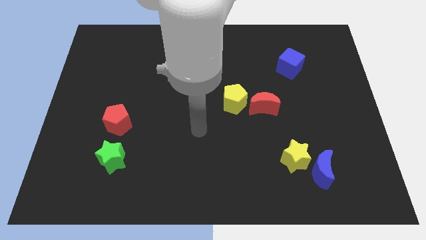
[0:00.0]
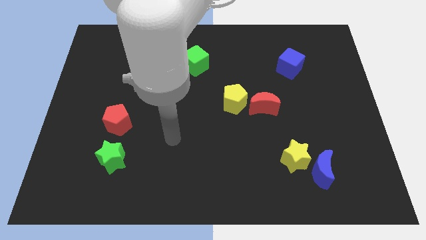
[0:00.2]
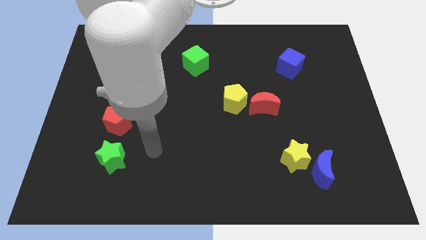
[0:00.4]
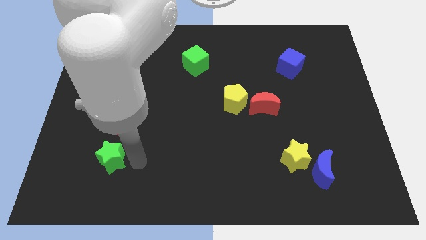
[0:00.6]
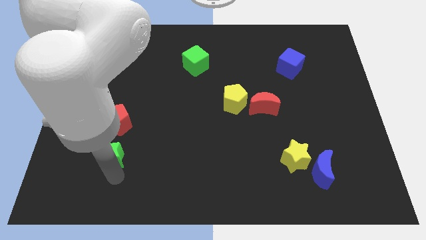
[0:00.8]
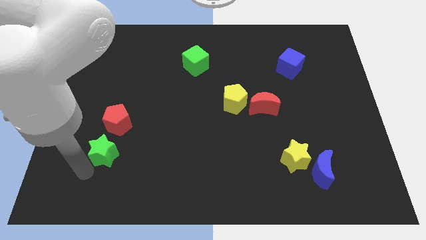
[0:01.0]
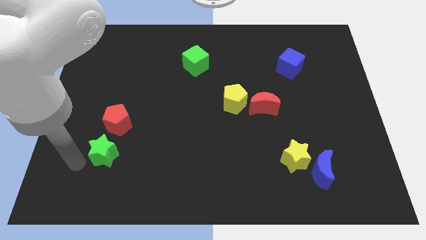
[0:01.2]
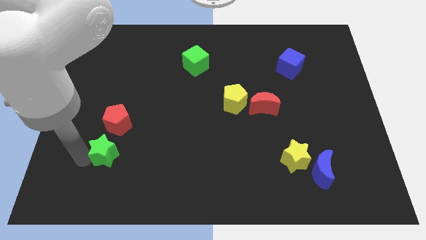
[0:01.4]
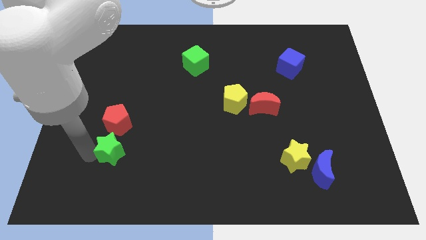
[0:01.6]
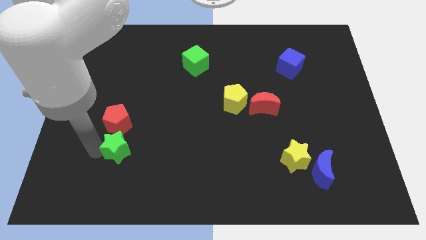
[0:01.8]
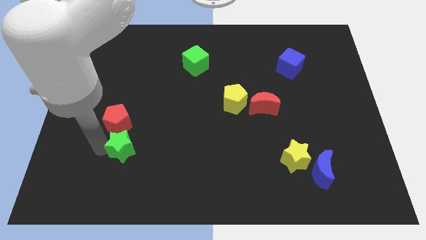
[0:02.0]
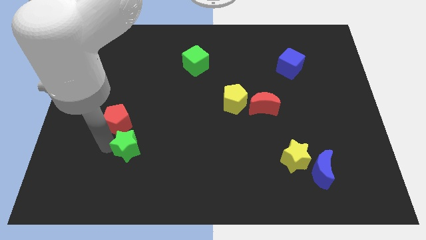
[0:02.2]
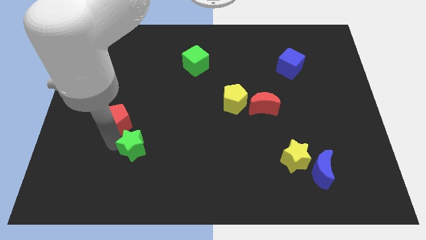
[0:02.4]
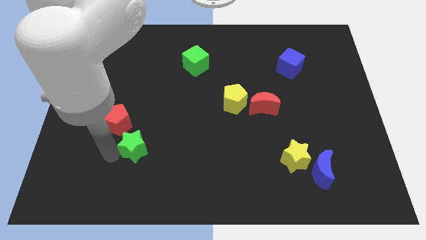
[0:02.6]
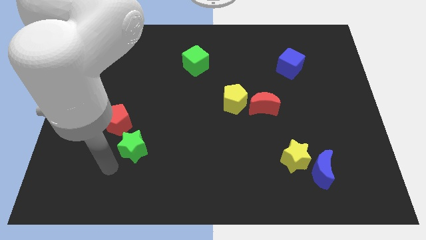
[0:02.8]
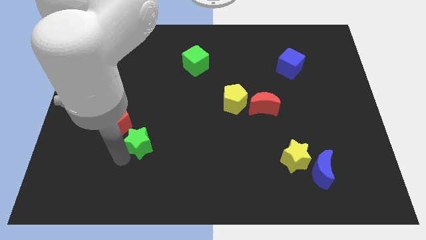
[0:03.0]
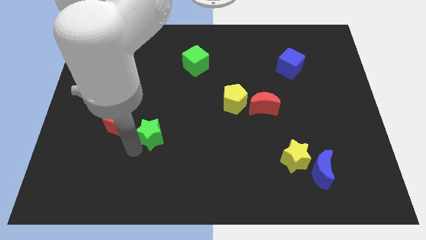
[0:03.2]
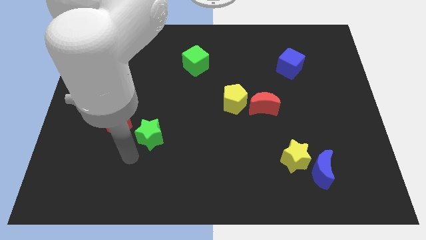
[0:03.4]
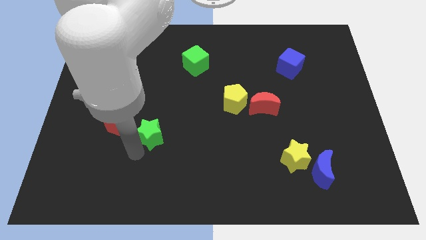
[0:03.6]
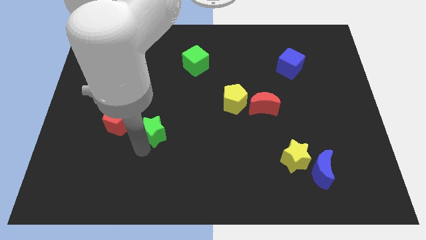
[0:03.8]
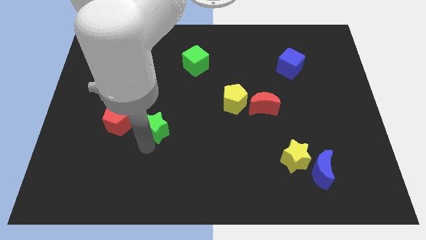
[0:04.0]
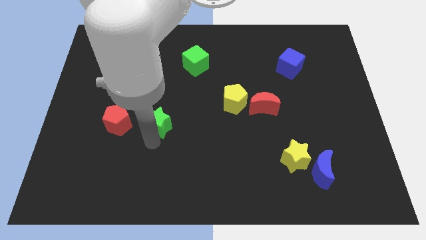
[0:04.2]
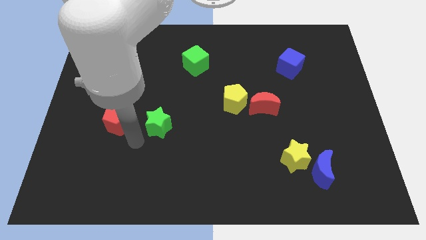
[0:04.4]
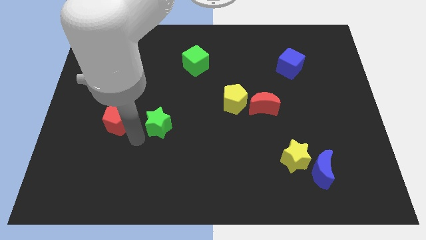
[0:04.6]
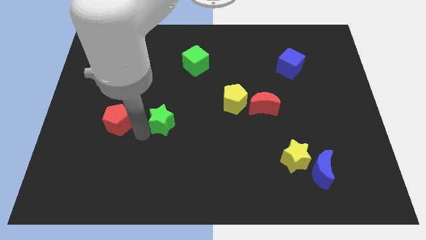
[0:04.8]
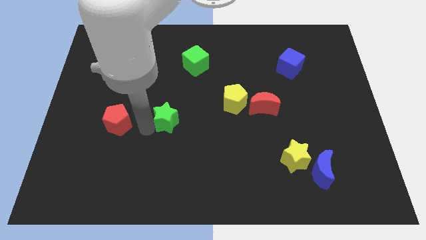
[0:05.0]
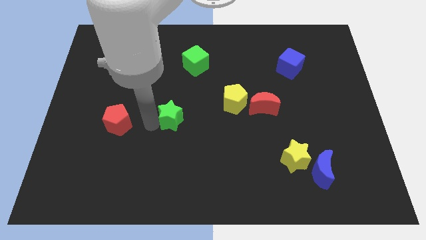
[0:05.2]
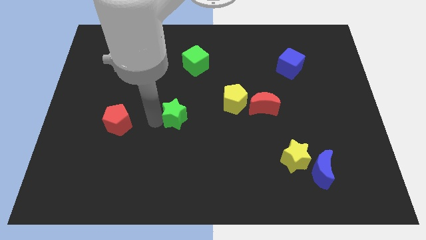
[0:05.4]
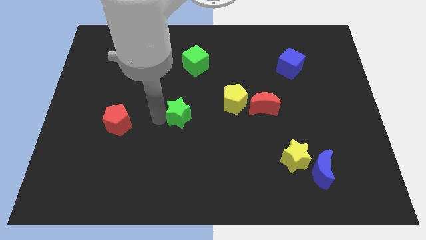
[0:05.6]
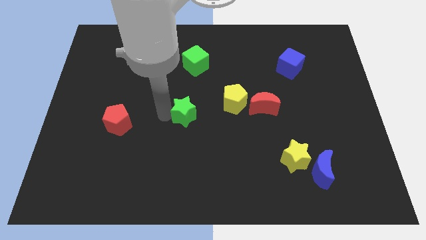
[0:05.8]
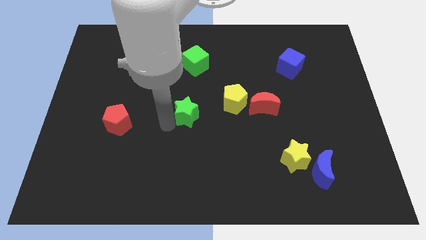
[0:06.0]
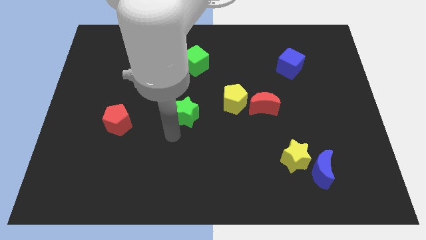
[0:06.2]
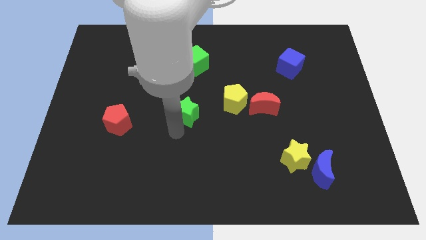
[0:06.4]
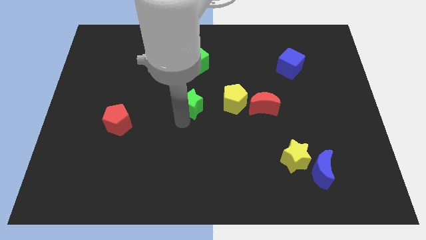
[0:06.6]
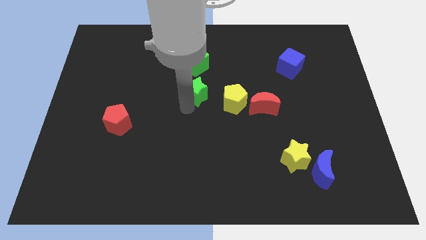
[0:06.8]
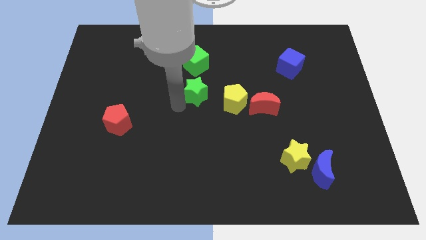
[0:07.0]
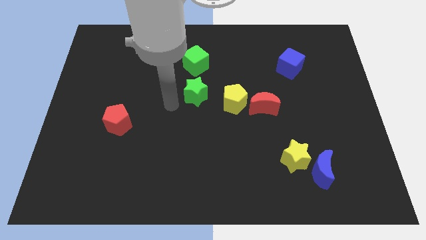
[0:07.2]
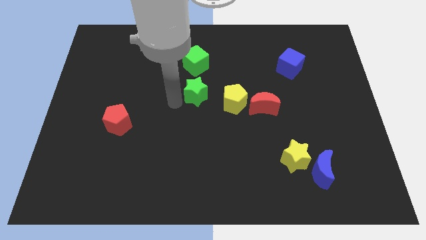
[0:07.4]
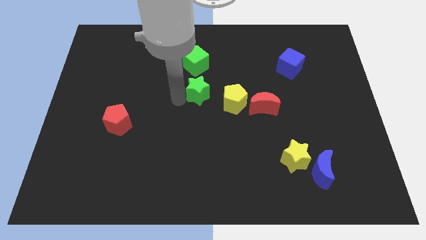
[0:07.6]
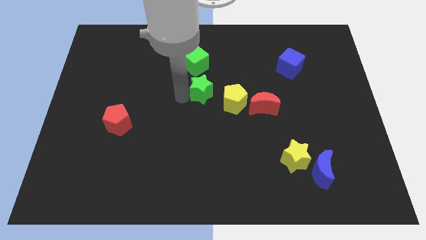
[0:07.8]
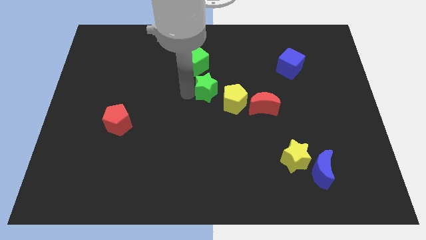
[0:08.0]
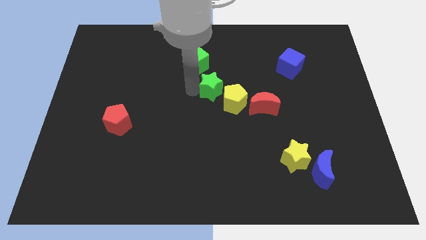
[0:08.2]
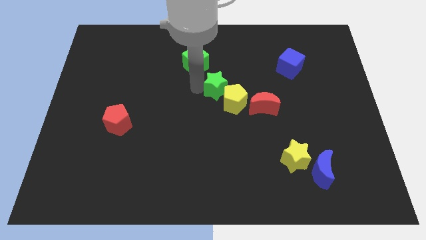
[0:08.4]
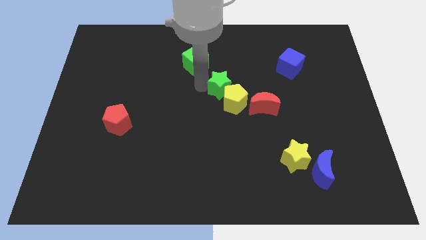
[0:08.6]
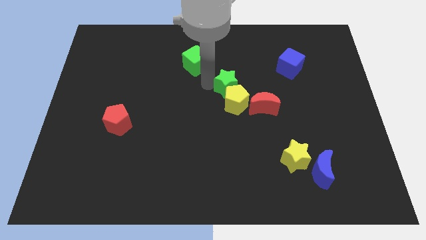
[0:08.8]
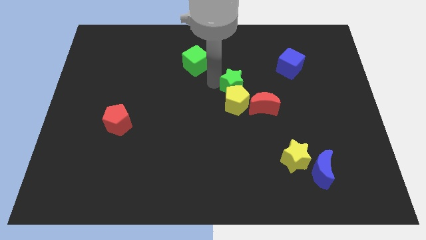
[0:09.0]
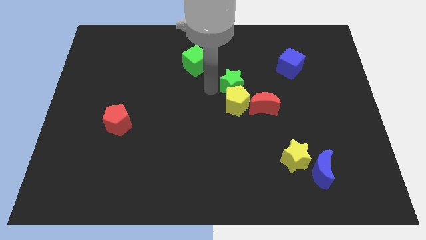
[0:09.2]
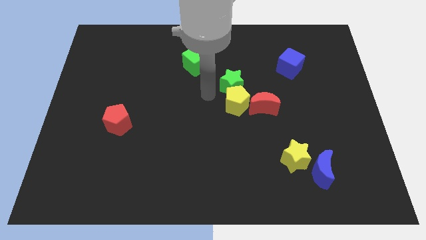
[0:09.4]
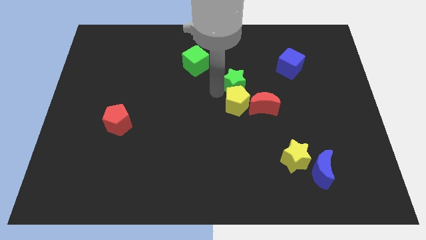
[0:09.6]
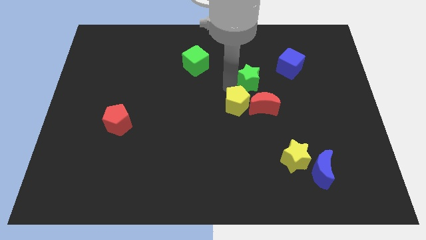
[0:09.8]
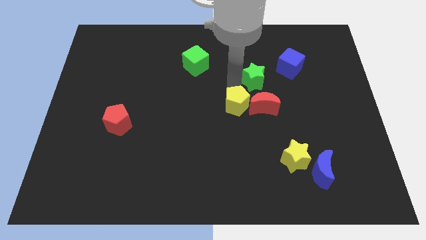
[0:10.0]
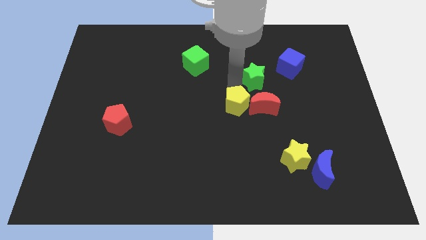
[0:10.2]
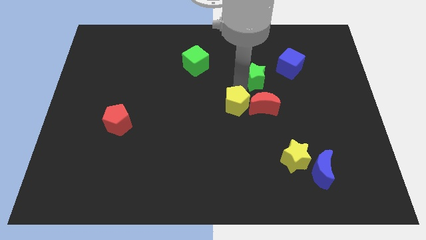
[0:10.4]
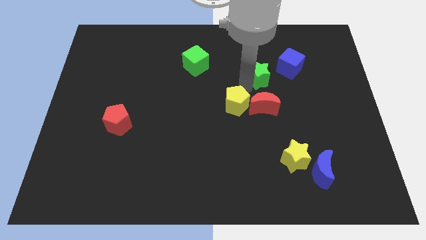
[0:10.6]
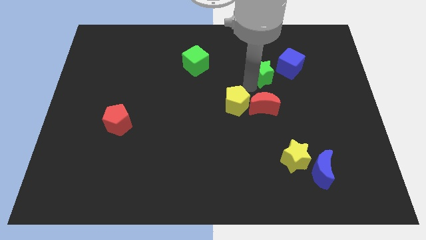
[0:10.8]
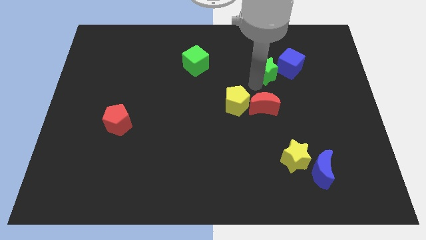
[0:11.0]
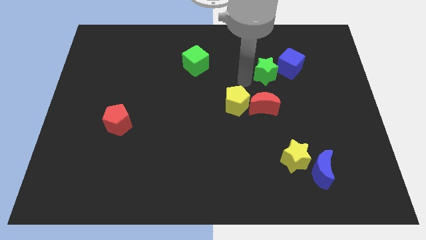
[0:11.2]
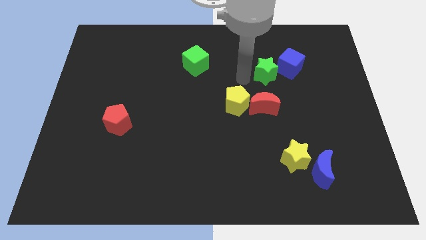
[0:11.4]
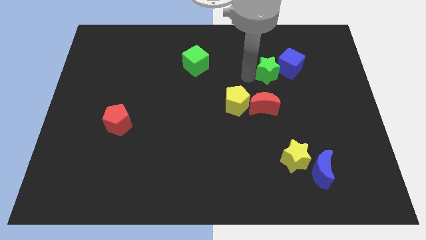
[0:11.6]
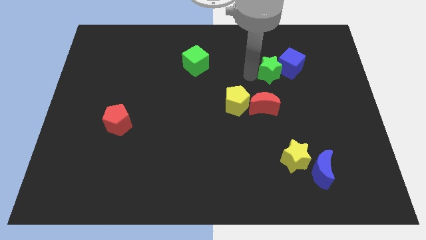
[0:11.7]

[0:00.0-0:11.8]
put the green star close to the blue cube

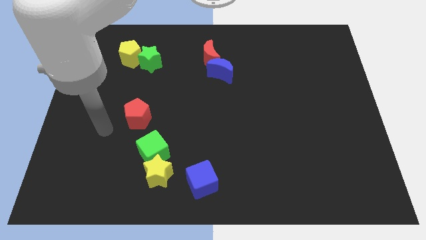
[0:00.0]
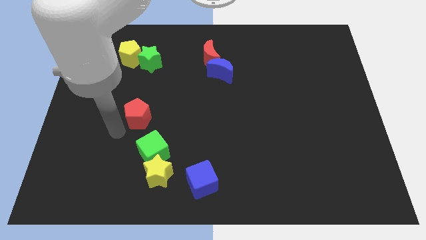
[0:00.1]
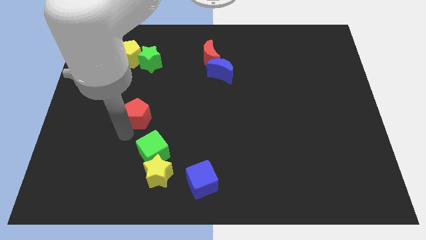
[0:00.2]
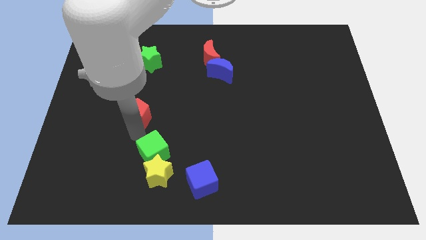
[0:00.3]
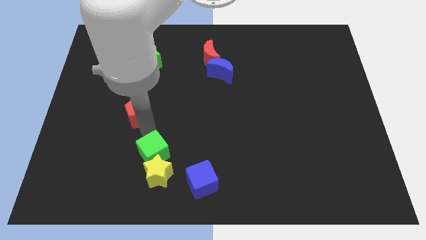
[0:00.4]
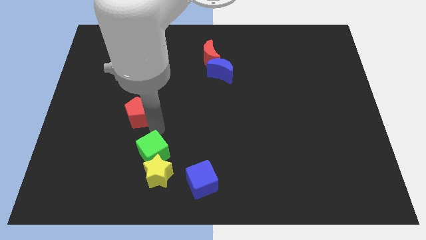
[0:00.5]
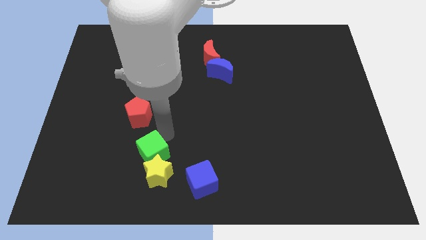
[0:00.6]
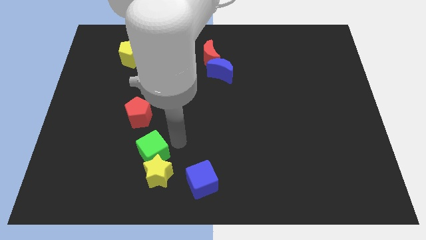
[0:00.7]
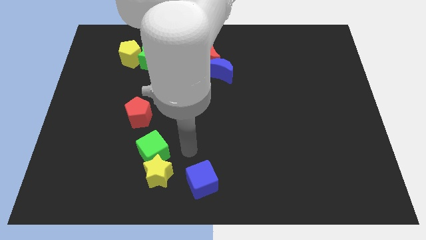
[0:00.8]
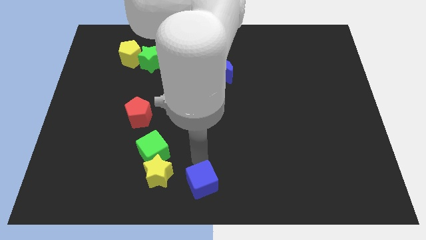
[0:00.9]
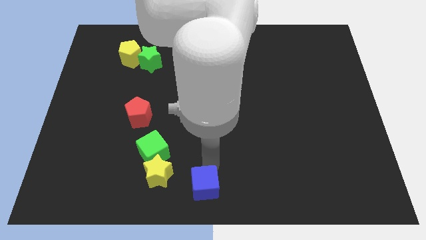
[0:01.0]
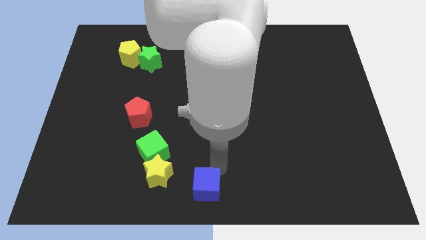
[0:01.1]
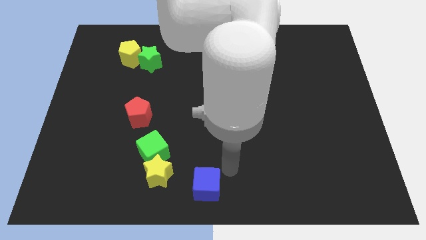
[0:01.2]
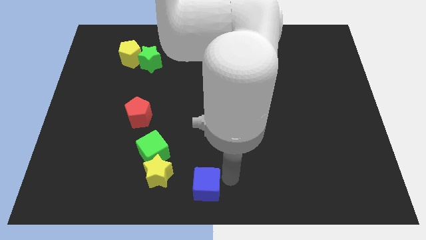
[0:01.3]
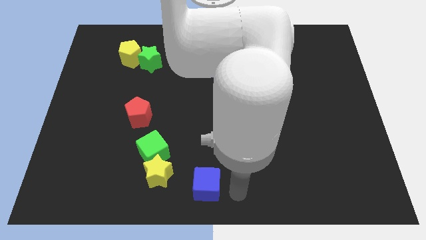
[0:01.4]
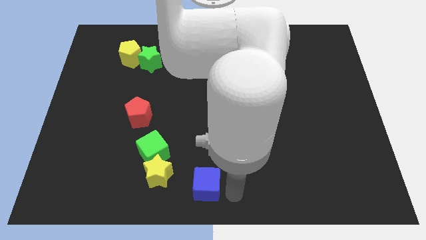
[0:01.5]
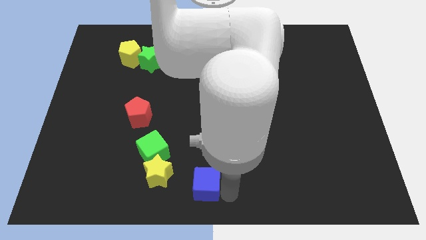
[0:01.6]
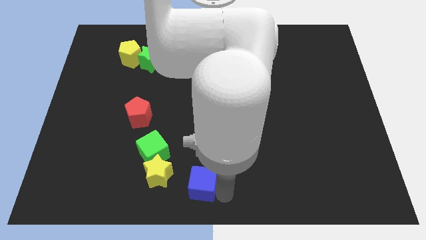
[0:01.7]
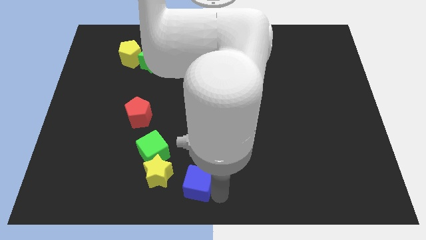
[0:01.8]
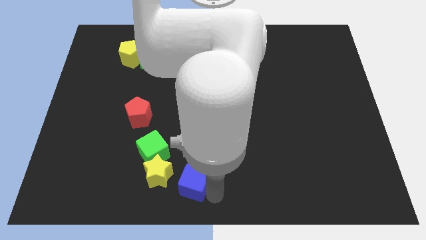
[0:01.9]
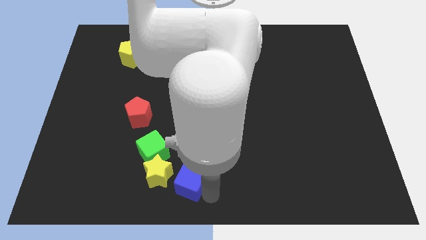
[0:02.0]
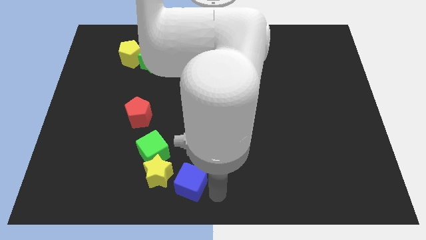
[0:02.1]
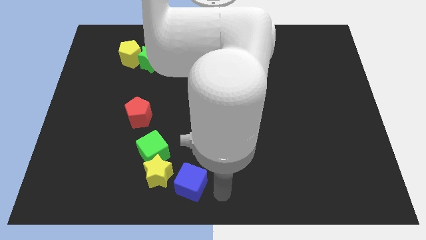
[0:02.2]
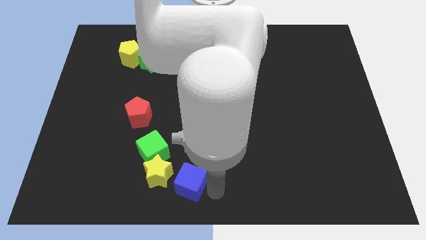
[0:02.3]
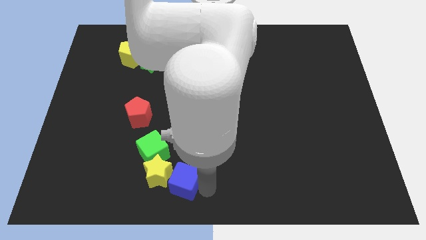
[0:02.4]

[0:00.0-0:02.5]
move the blue cube next to the yellow star
